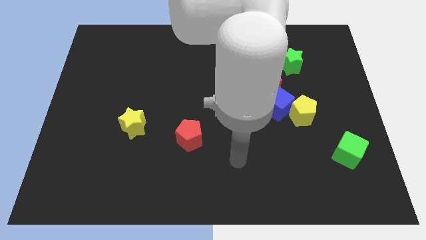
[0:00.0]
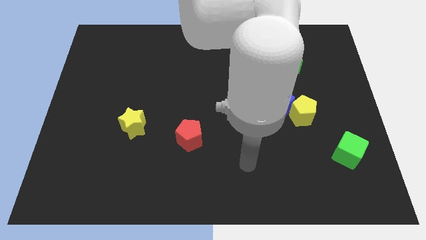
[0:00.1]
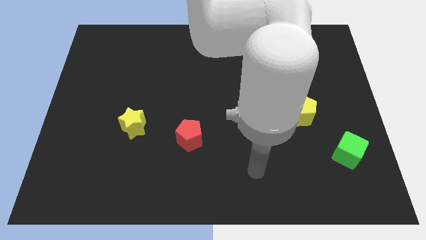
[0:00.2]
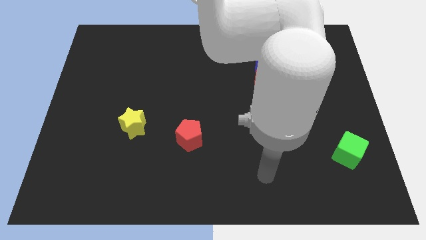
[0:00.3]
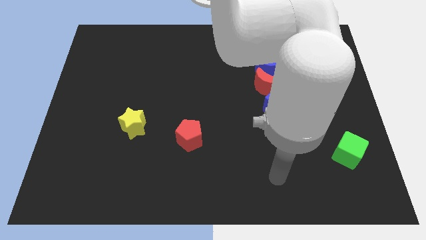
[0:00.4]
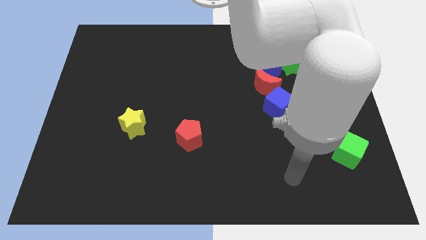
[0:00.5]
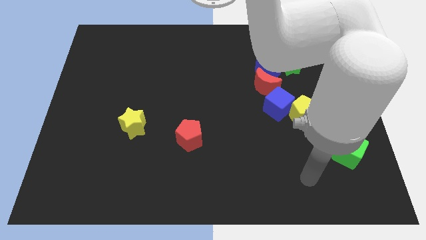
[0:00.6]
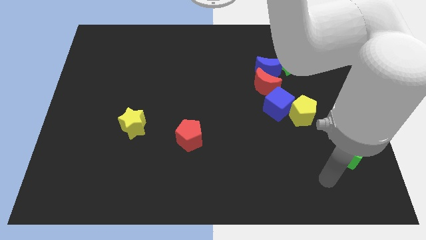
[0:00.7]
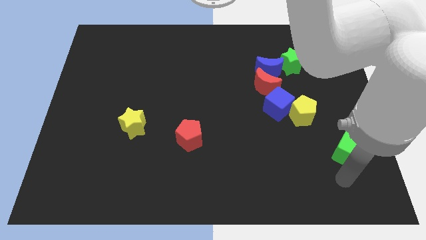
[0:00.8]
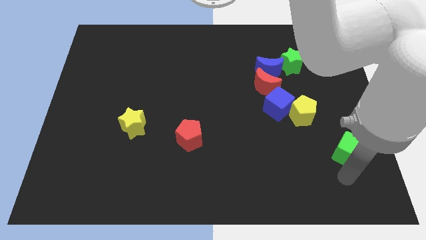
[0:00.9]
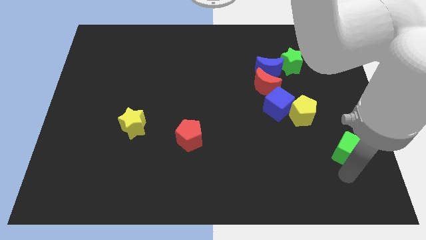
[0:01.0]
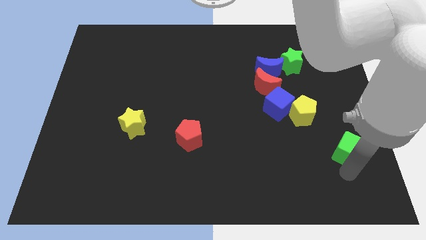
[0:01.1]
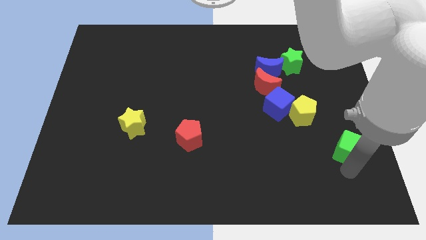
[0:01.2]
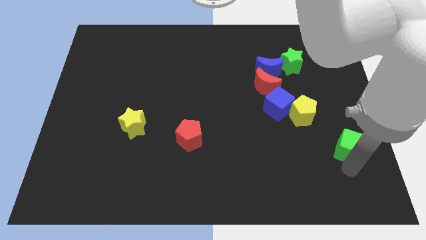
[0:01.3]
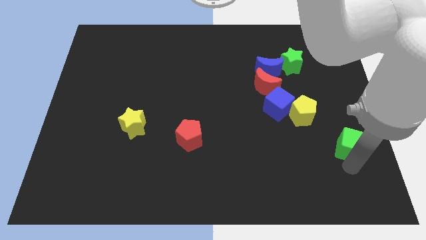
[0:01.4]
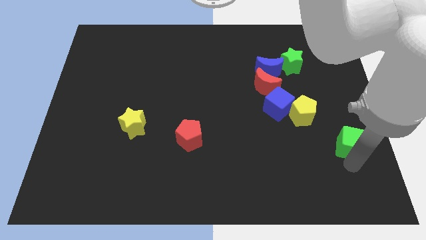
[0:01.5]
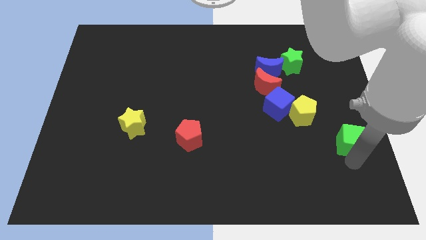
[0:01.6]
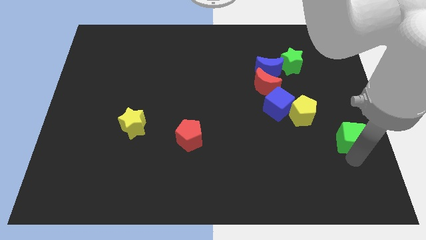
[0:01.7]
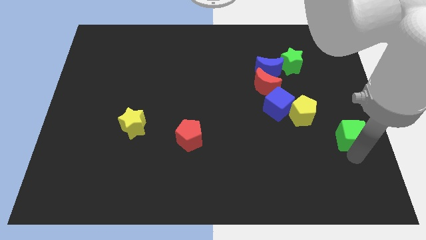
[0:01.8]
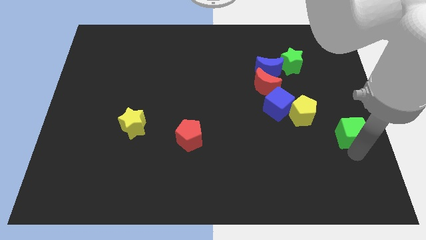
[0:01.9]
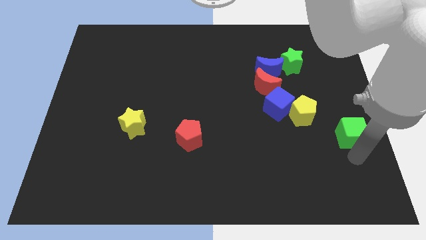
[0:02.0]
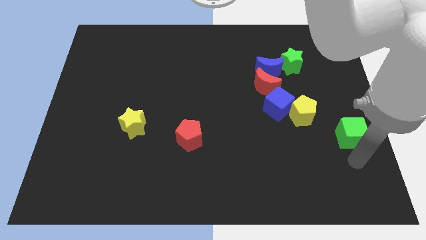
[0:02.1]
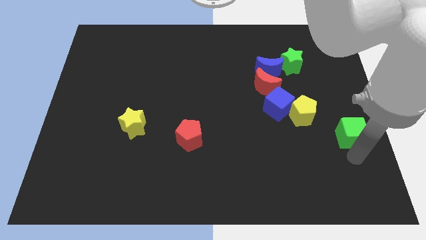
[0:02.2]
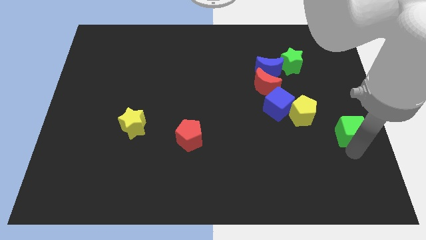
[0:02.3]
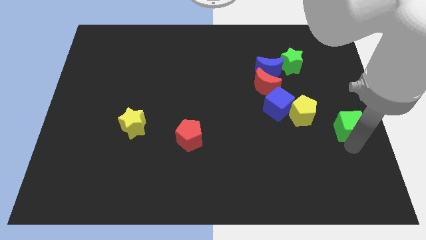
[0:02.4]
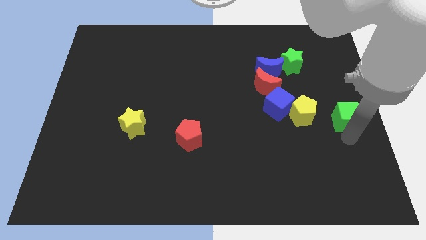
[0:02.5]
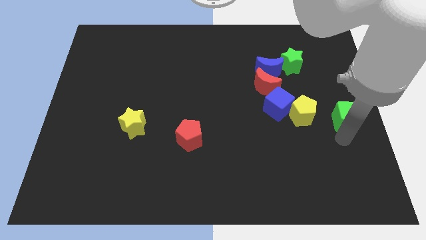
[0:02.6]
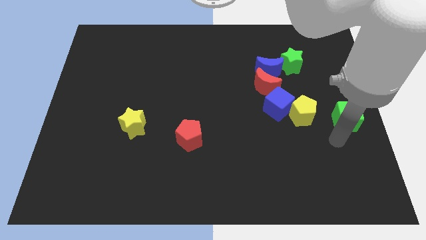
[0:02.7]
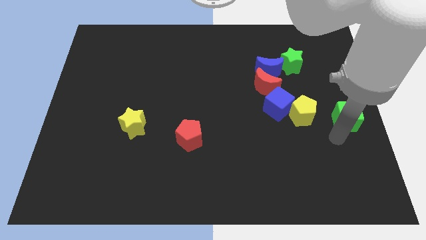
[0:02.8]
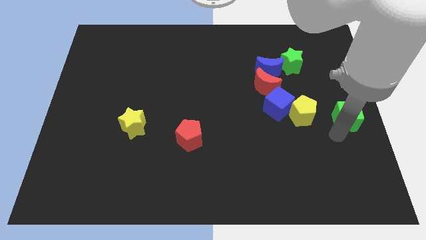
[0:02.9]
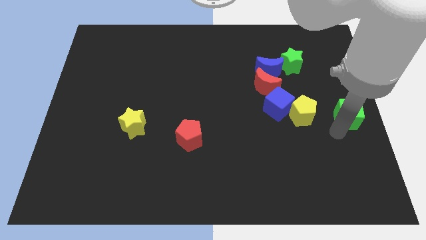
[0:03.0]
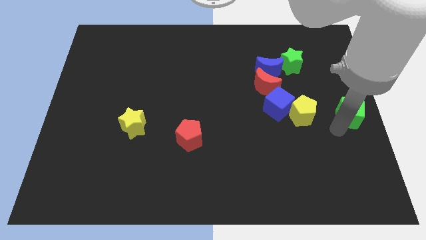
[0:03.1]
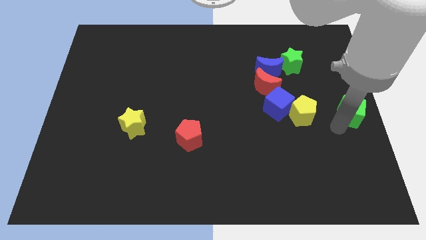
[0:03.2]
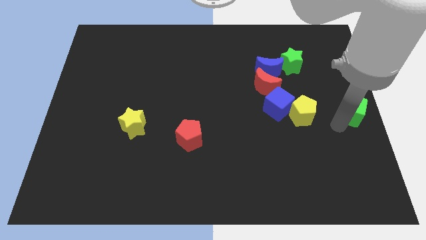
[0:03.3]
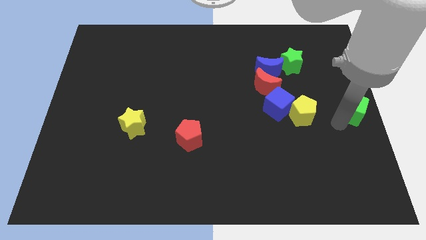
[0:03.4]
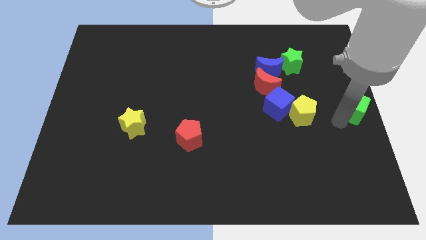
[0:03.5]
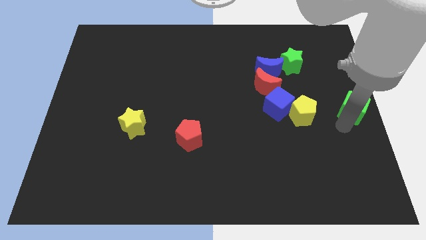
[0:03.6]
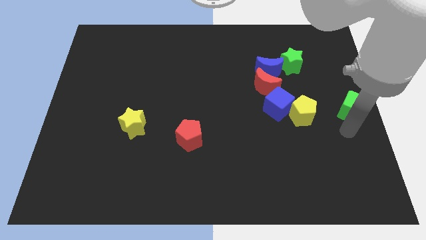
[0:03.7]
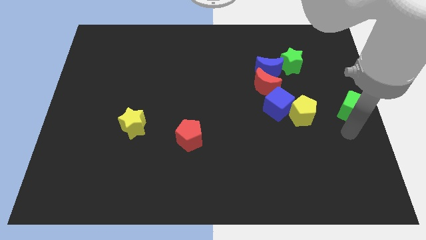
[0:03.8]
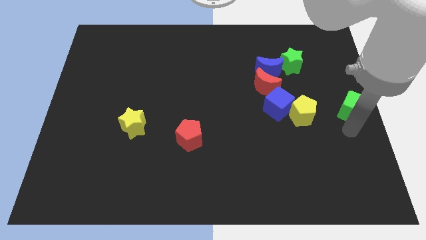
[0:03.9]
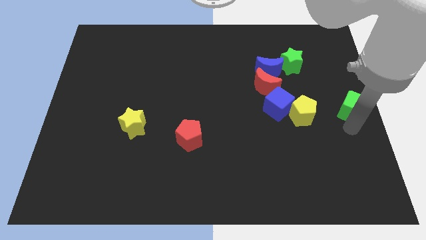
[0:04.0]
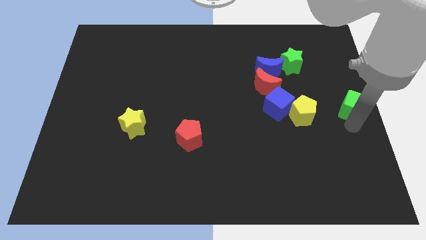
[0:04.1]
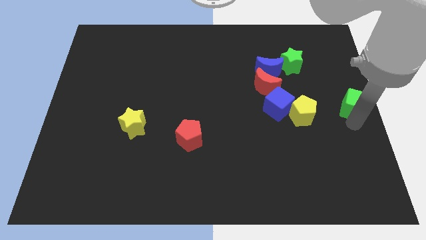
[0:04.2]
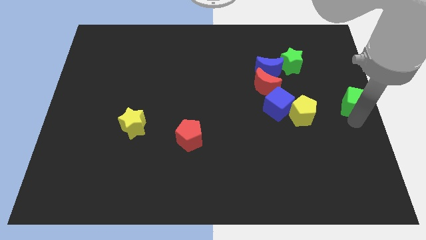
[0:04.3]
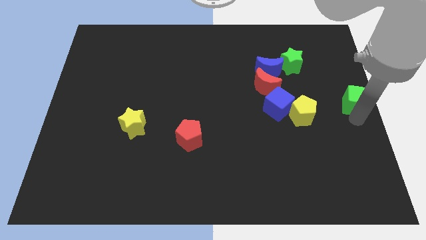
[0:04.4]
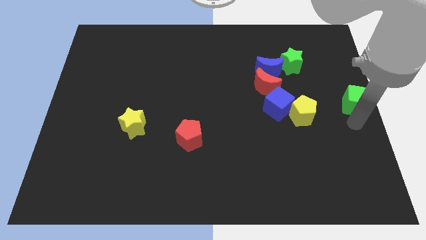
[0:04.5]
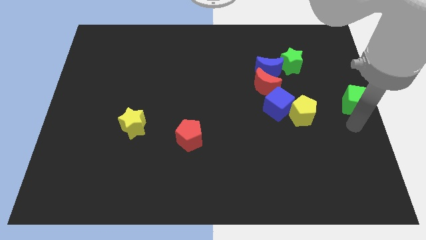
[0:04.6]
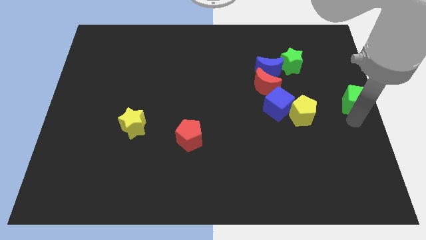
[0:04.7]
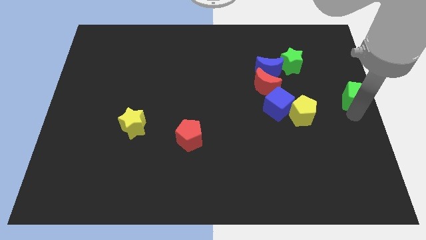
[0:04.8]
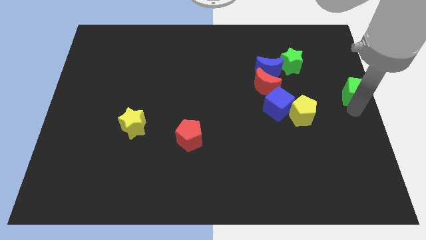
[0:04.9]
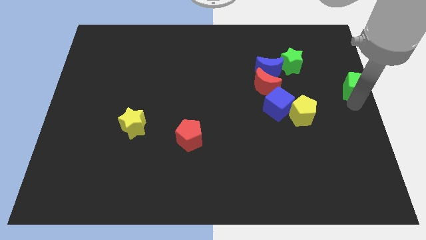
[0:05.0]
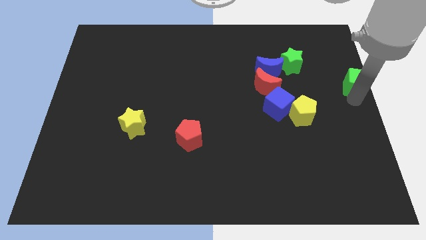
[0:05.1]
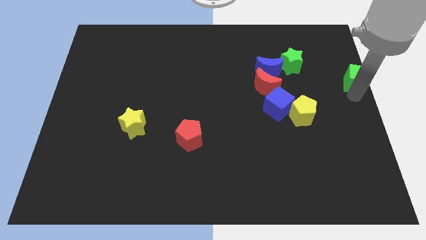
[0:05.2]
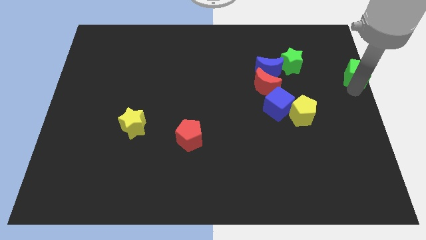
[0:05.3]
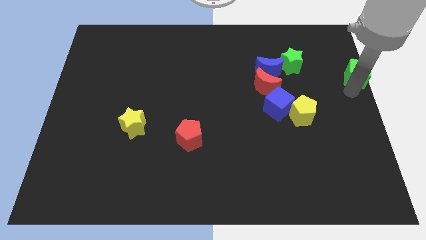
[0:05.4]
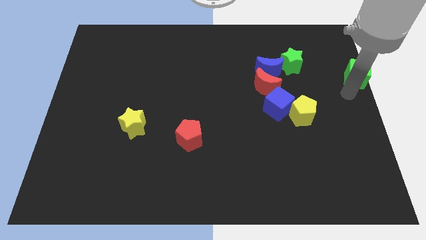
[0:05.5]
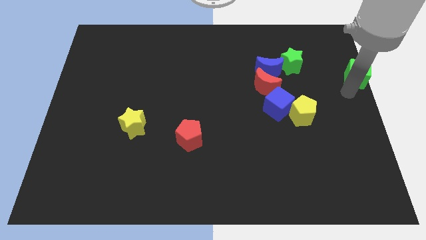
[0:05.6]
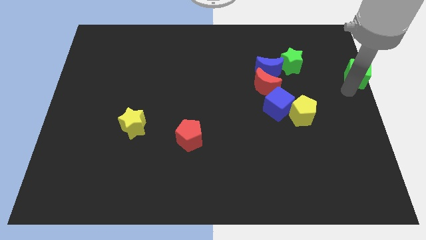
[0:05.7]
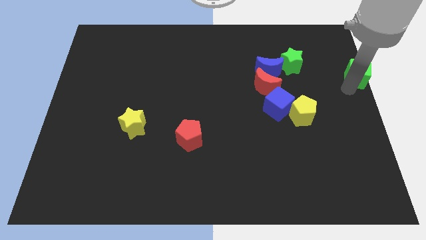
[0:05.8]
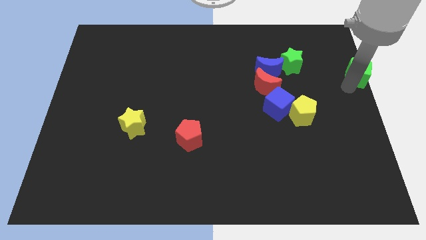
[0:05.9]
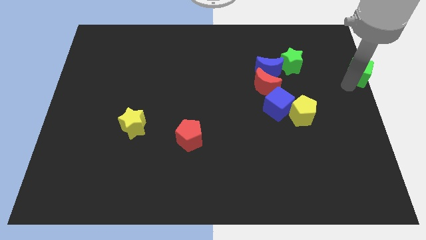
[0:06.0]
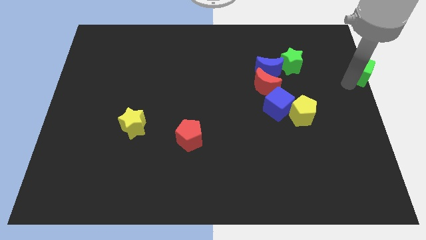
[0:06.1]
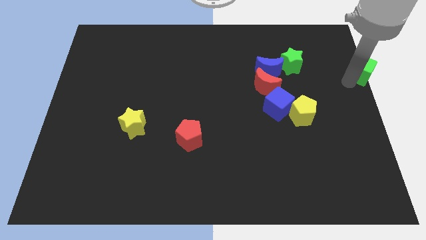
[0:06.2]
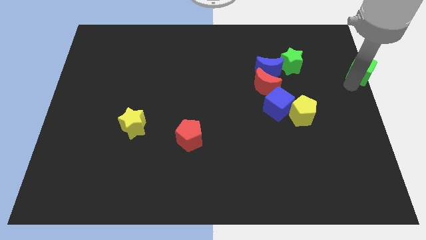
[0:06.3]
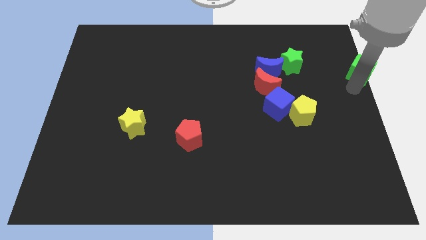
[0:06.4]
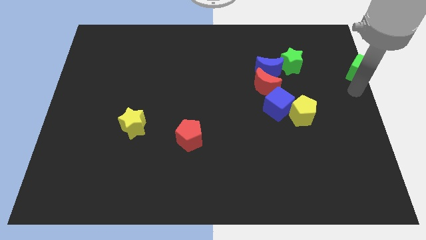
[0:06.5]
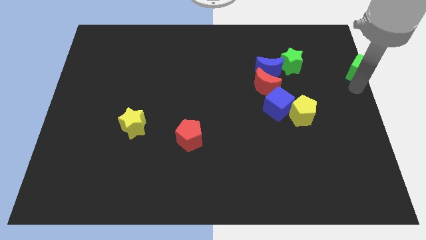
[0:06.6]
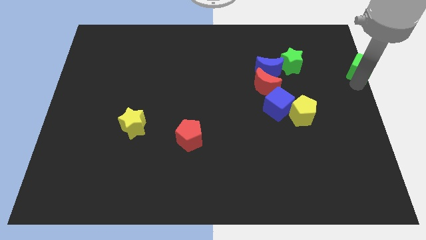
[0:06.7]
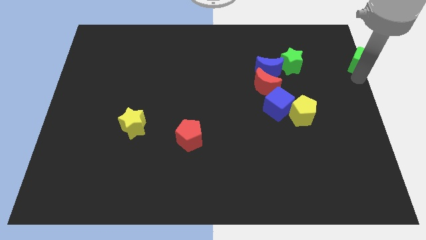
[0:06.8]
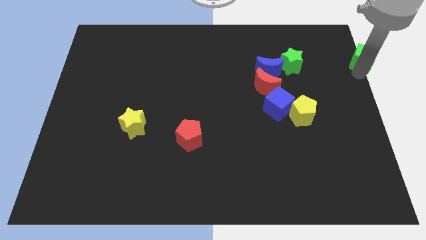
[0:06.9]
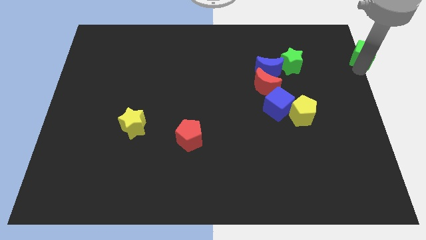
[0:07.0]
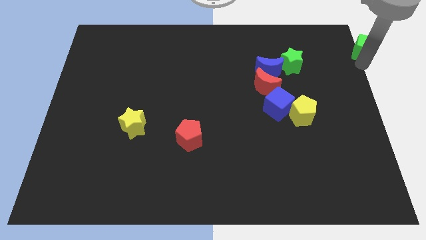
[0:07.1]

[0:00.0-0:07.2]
push the green cube to the top right
